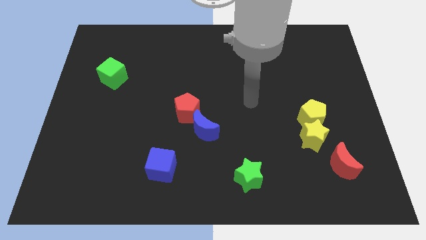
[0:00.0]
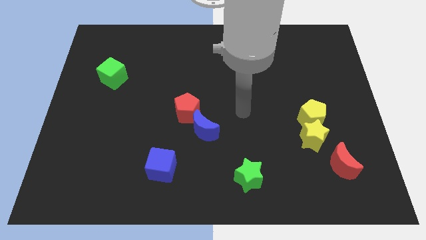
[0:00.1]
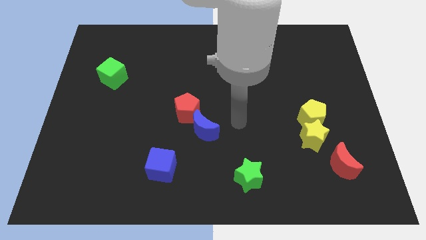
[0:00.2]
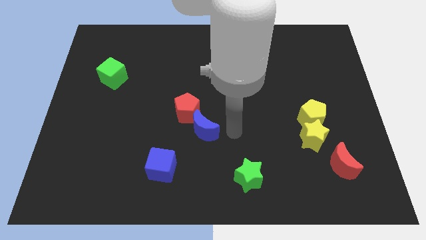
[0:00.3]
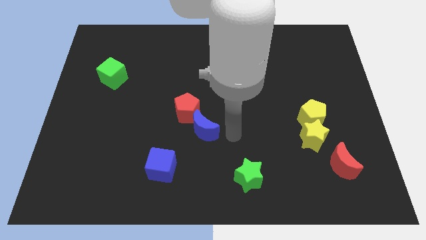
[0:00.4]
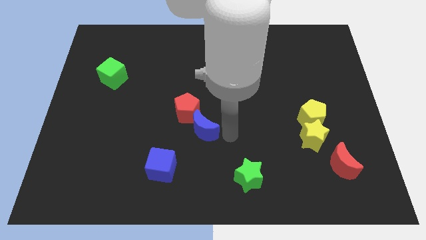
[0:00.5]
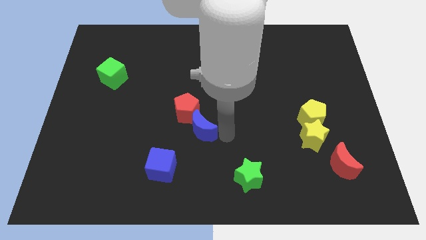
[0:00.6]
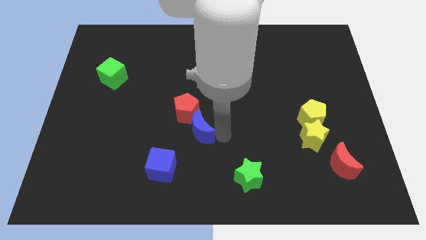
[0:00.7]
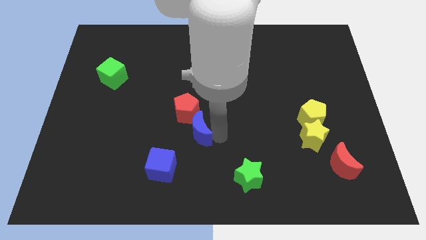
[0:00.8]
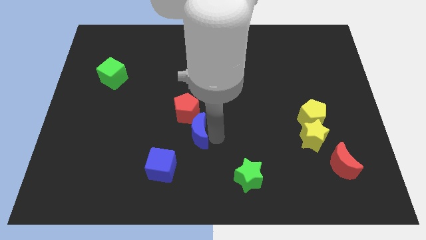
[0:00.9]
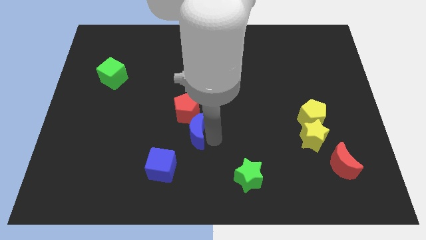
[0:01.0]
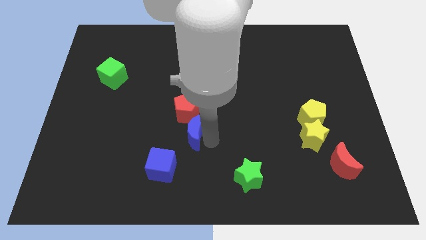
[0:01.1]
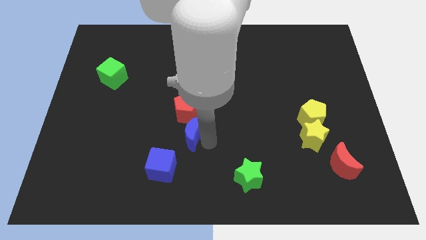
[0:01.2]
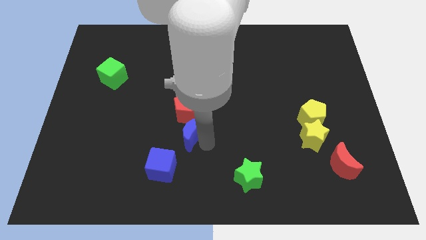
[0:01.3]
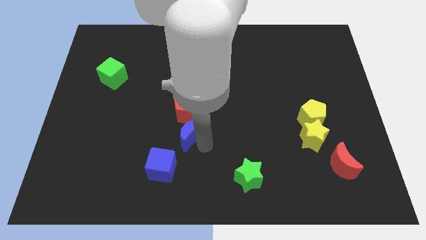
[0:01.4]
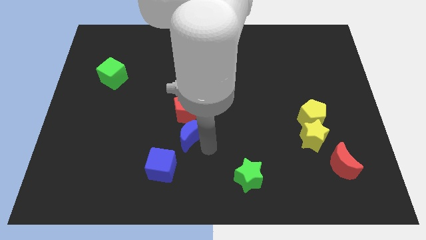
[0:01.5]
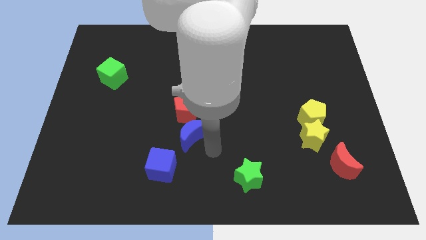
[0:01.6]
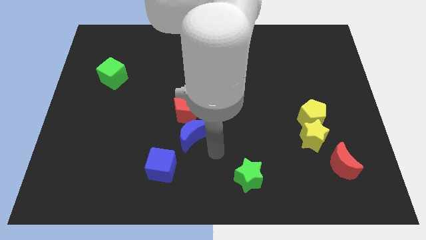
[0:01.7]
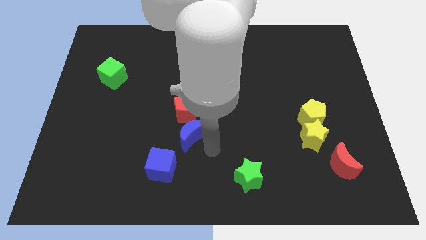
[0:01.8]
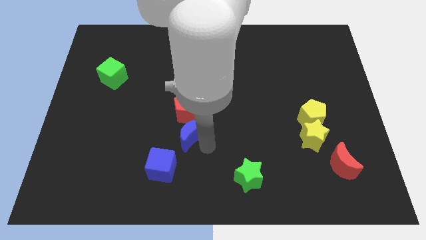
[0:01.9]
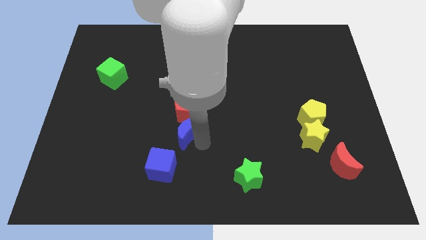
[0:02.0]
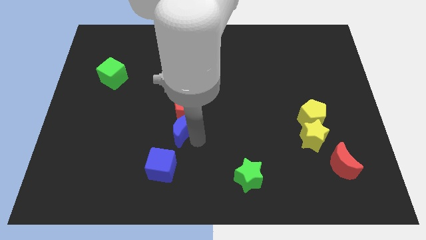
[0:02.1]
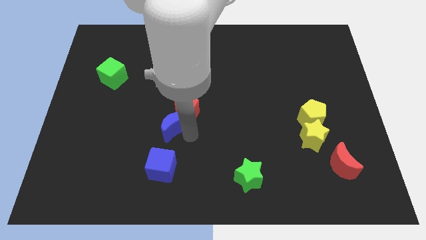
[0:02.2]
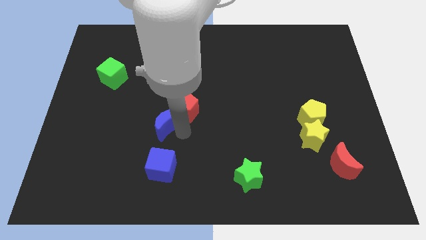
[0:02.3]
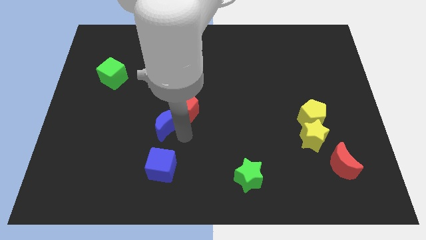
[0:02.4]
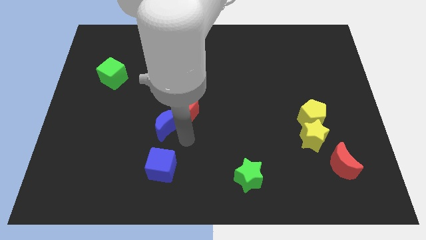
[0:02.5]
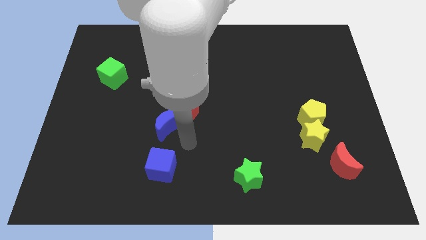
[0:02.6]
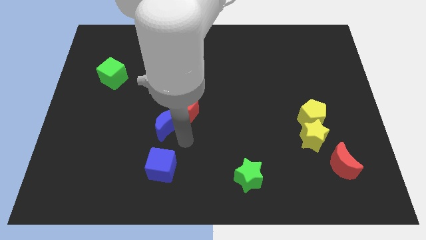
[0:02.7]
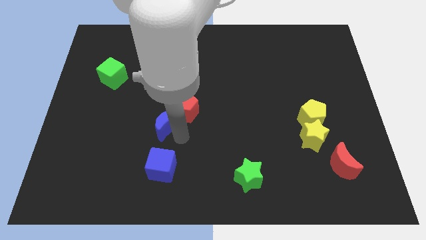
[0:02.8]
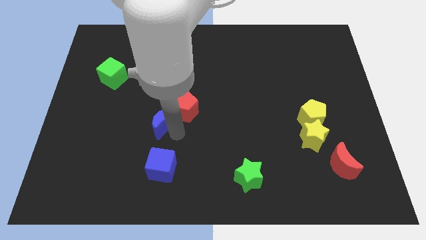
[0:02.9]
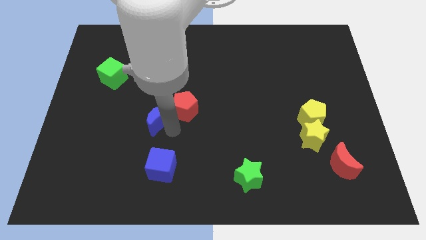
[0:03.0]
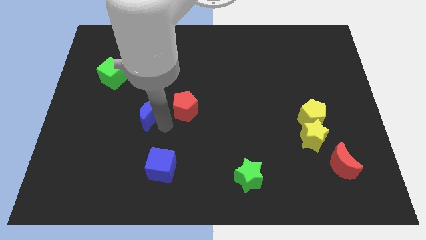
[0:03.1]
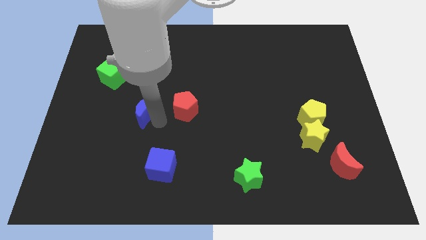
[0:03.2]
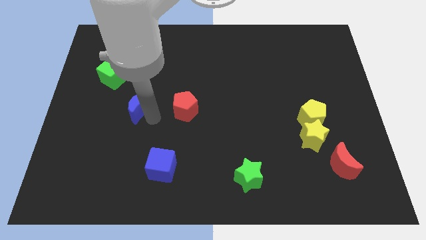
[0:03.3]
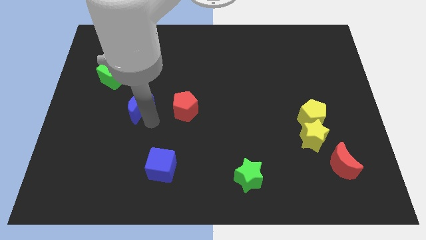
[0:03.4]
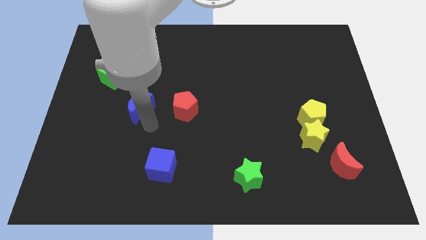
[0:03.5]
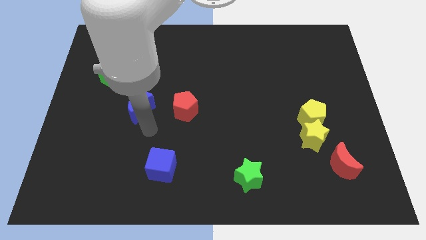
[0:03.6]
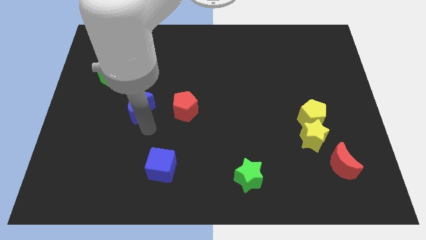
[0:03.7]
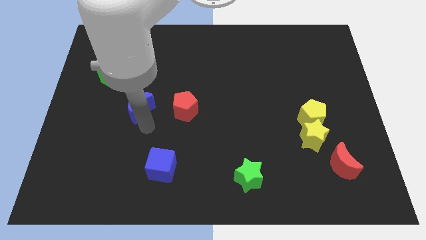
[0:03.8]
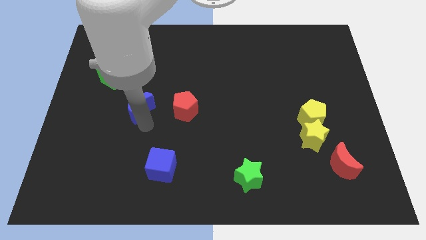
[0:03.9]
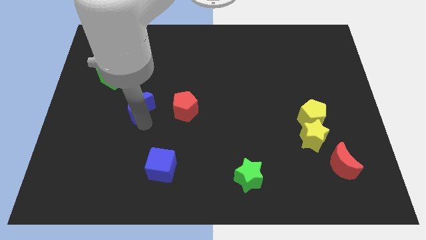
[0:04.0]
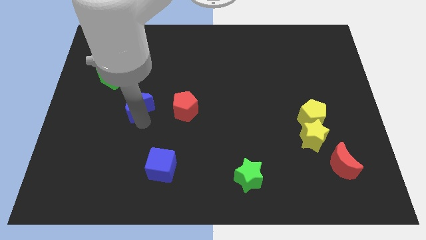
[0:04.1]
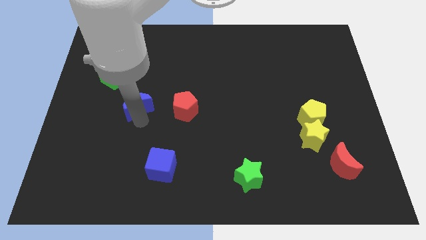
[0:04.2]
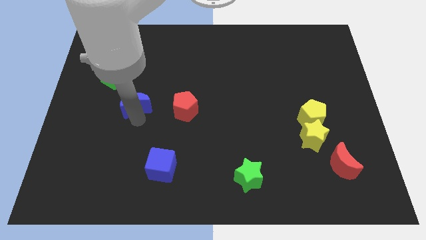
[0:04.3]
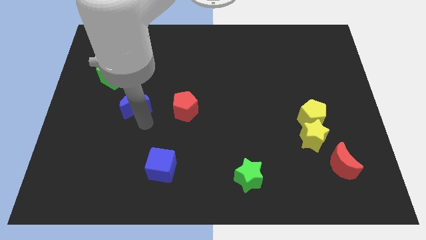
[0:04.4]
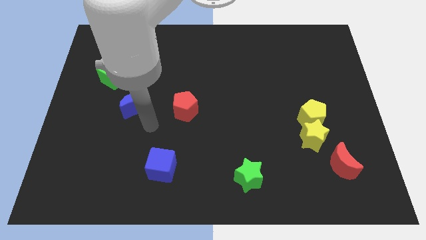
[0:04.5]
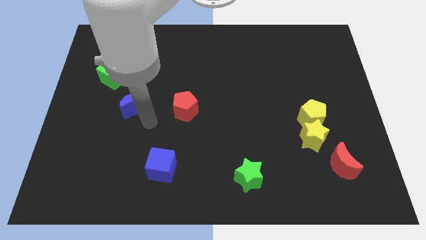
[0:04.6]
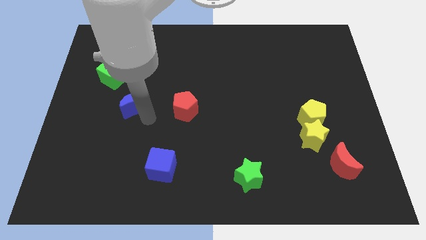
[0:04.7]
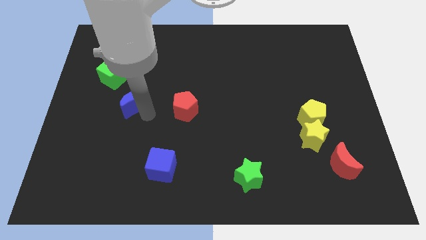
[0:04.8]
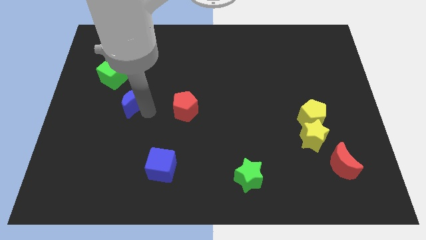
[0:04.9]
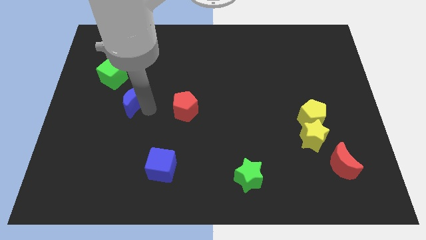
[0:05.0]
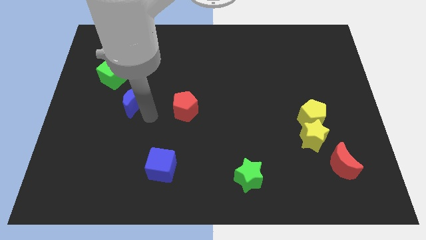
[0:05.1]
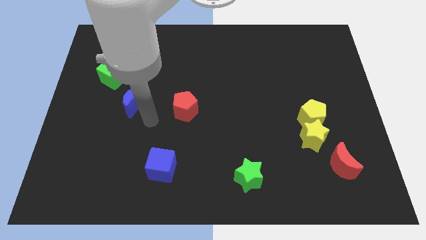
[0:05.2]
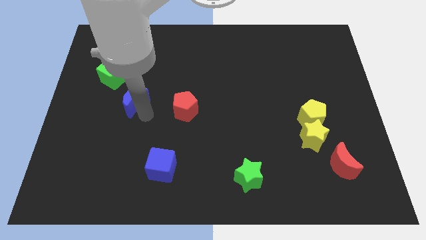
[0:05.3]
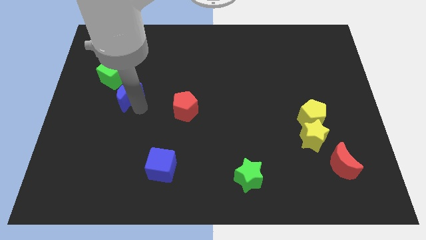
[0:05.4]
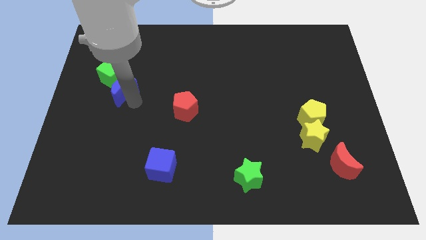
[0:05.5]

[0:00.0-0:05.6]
slide the blue moon to the green cube

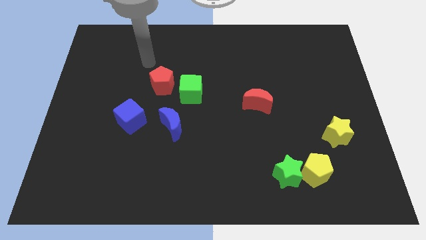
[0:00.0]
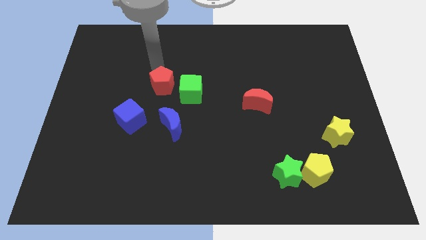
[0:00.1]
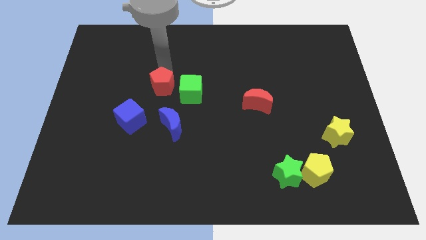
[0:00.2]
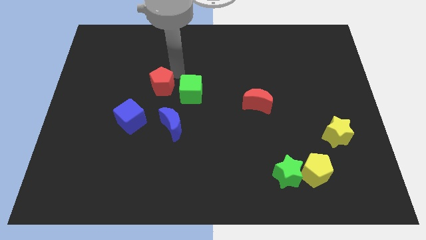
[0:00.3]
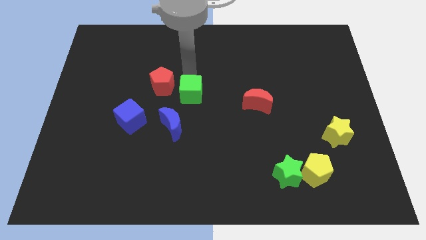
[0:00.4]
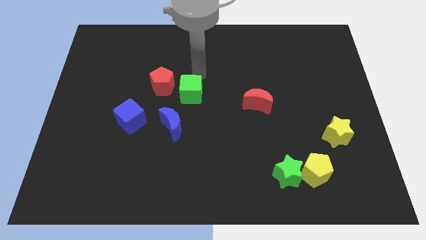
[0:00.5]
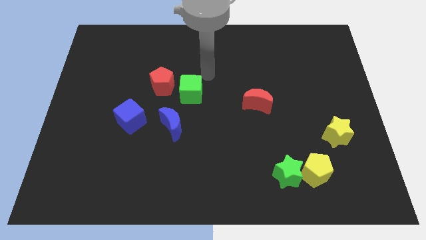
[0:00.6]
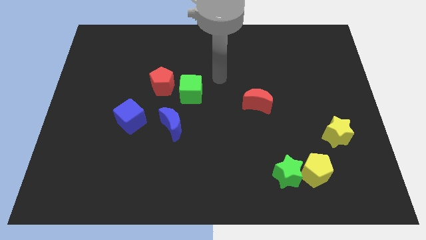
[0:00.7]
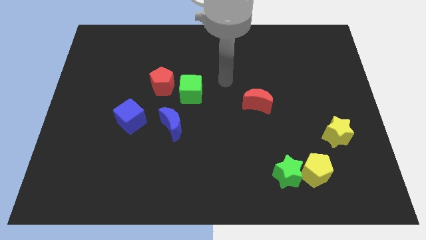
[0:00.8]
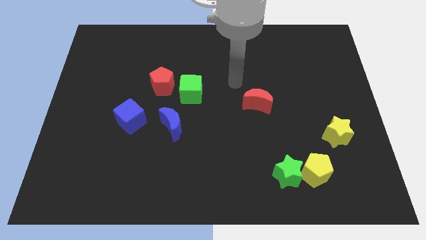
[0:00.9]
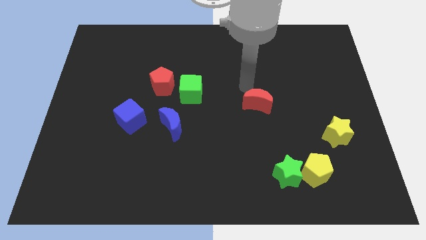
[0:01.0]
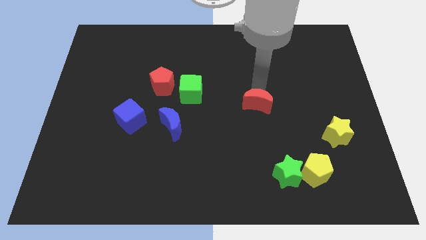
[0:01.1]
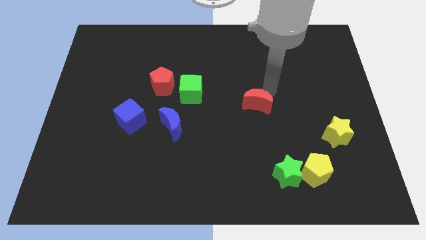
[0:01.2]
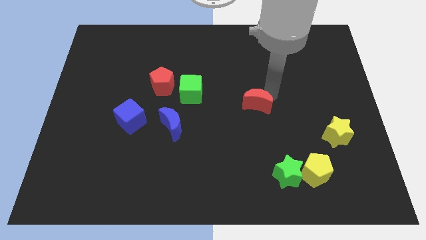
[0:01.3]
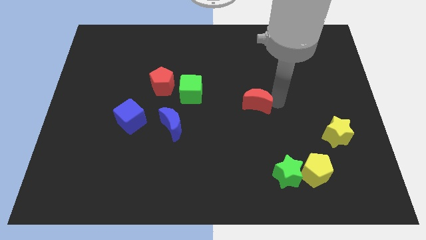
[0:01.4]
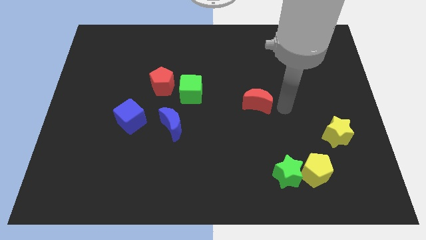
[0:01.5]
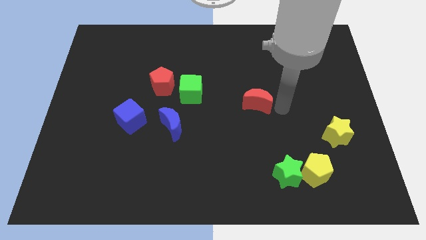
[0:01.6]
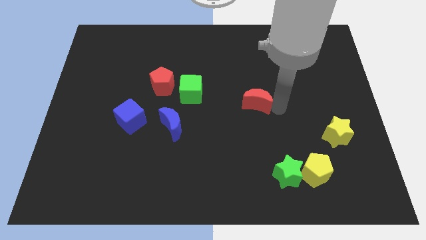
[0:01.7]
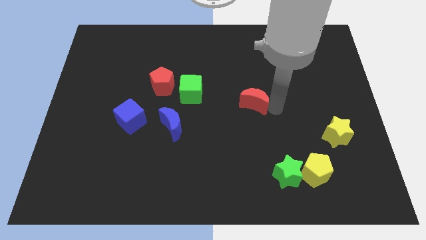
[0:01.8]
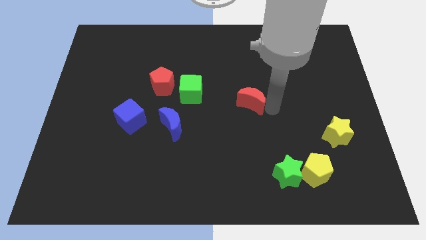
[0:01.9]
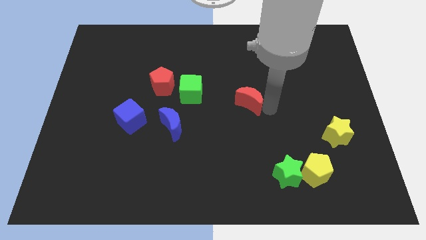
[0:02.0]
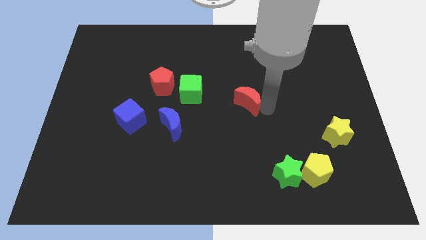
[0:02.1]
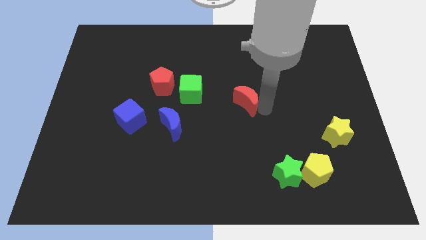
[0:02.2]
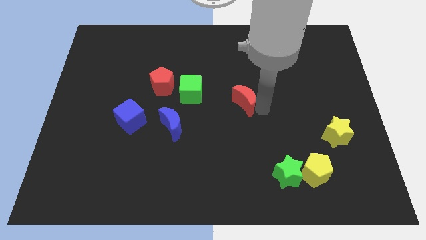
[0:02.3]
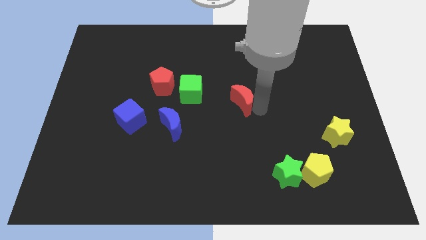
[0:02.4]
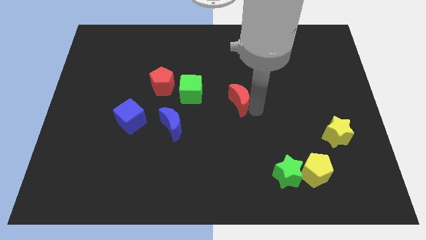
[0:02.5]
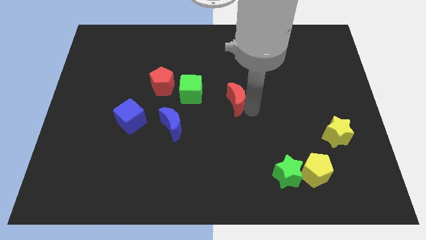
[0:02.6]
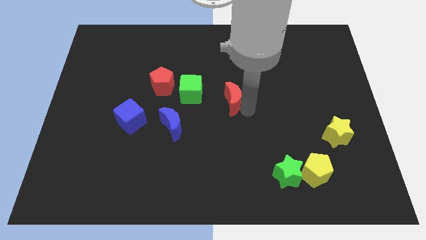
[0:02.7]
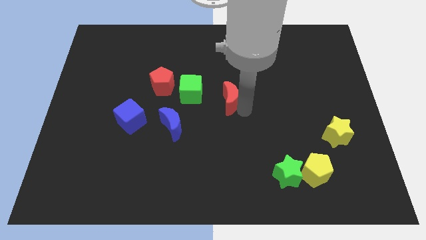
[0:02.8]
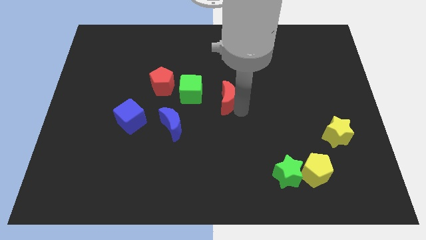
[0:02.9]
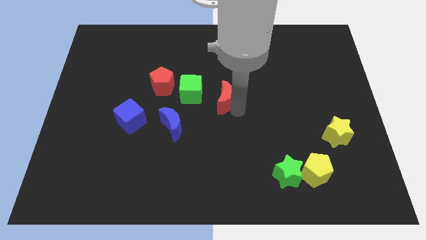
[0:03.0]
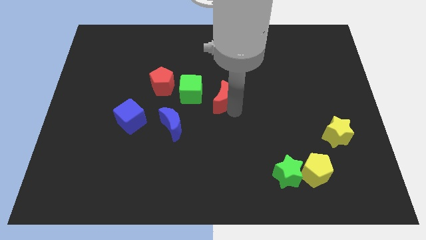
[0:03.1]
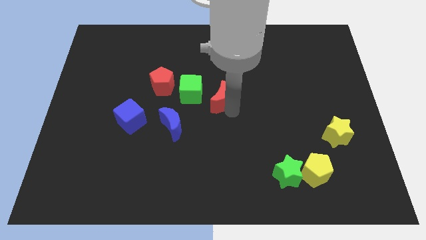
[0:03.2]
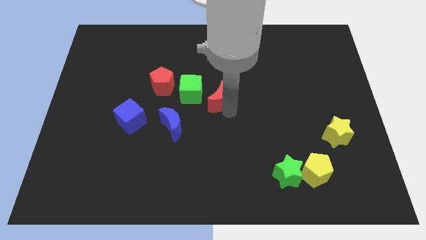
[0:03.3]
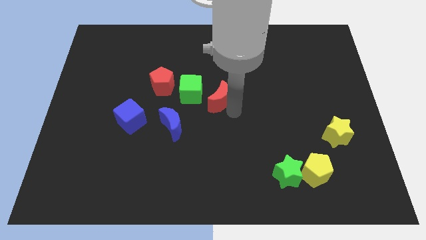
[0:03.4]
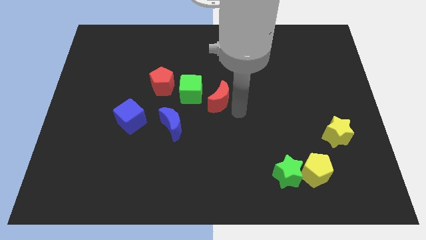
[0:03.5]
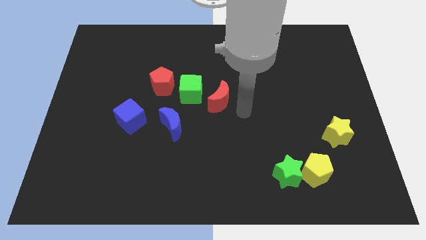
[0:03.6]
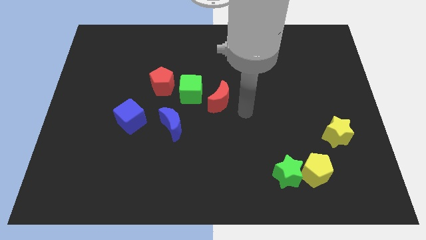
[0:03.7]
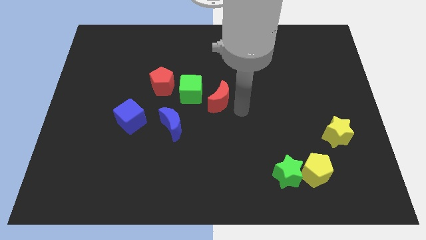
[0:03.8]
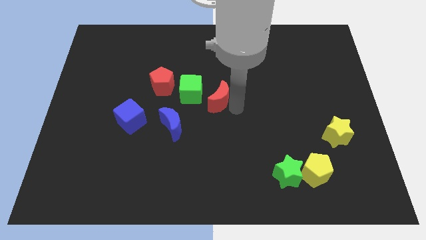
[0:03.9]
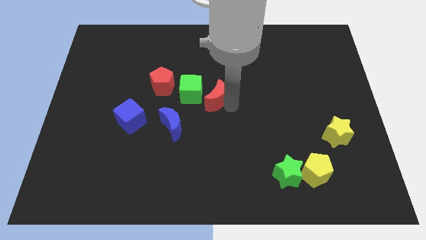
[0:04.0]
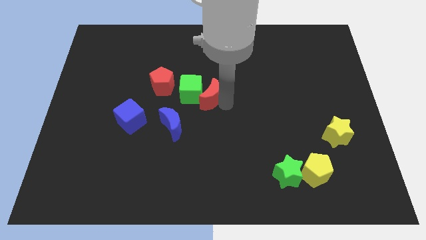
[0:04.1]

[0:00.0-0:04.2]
slide the red moon to the green cube
